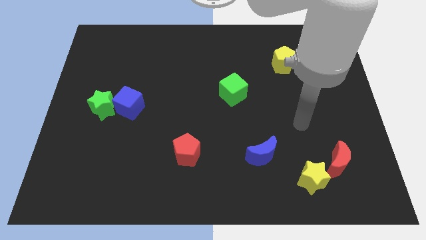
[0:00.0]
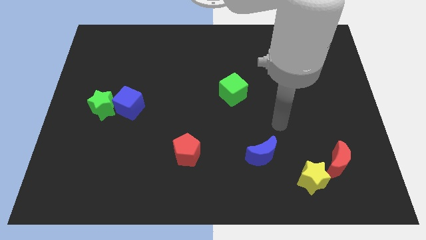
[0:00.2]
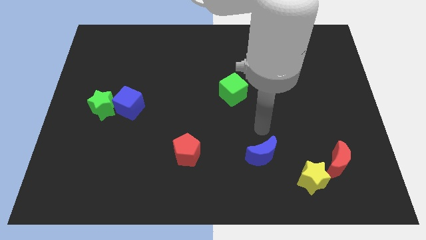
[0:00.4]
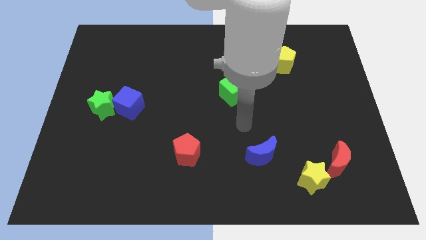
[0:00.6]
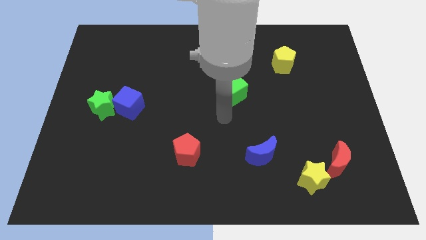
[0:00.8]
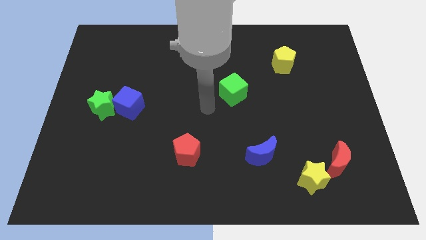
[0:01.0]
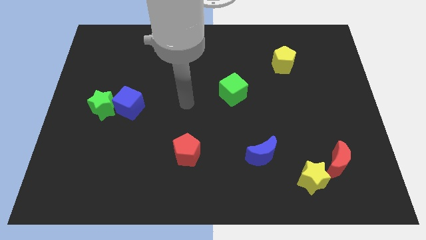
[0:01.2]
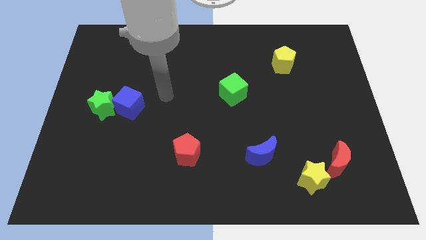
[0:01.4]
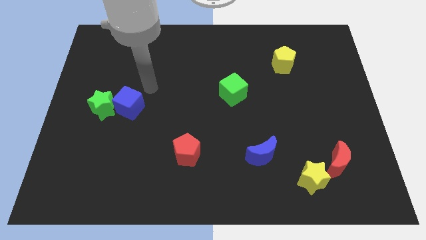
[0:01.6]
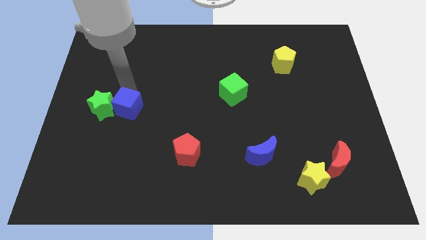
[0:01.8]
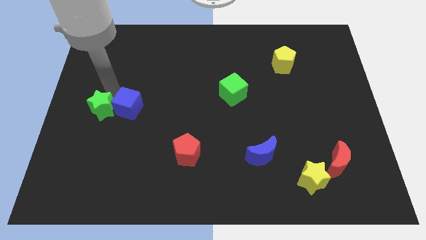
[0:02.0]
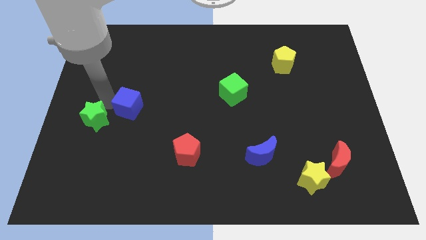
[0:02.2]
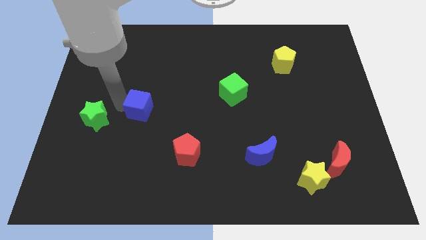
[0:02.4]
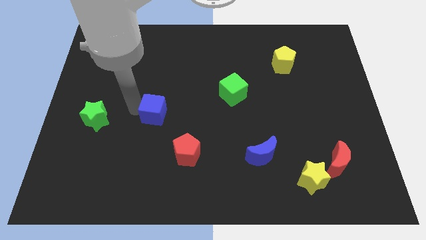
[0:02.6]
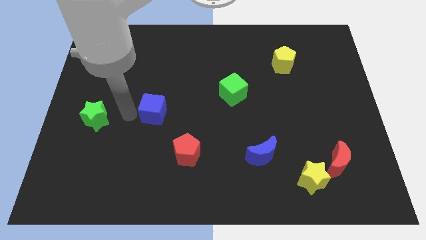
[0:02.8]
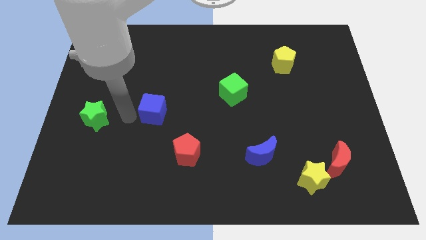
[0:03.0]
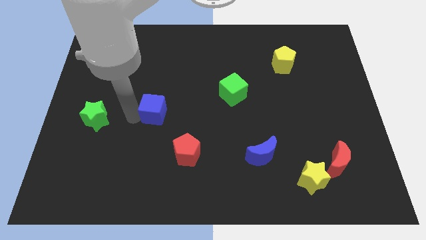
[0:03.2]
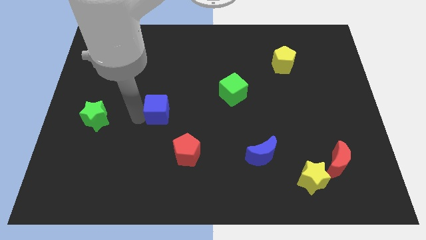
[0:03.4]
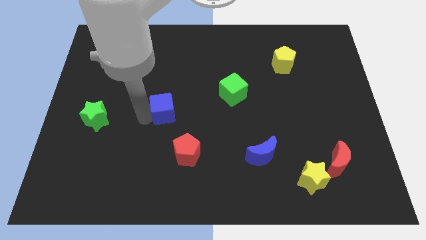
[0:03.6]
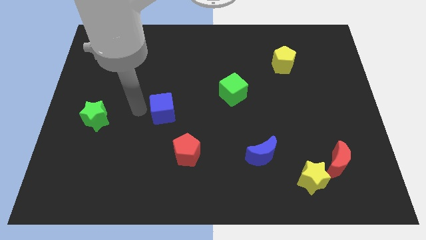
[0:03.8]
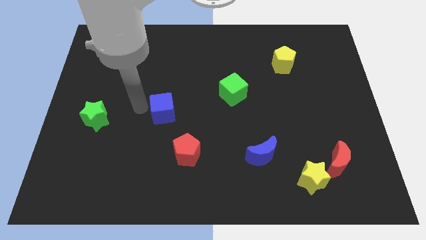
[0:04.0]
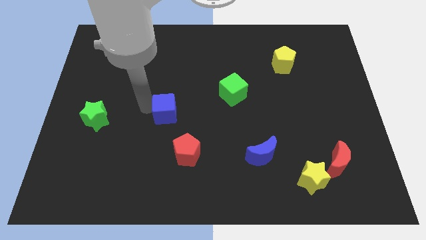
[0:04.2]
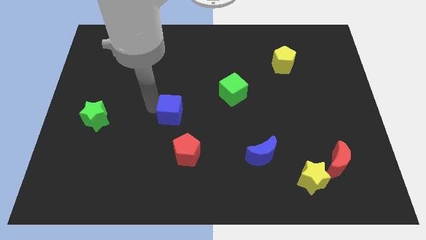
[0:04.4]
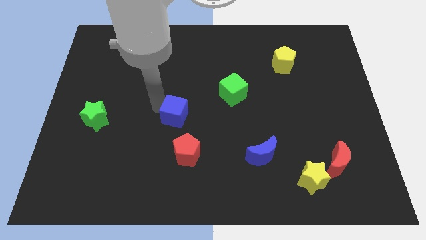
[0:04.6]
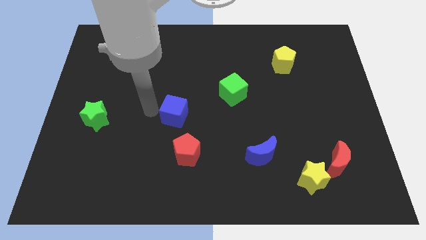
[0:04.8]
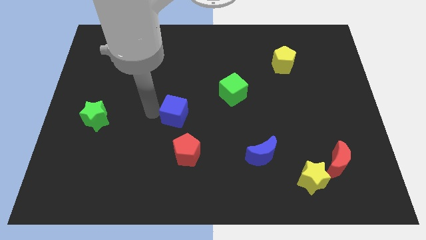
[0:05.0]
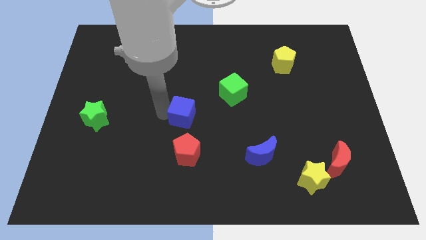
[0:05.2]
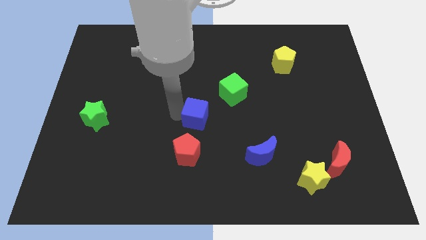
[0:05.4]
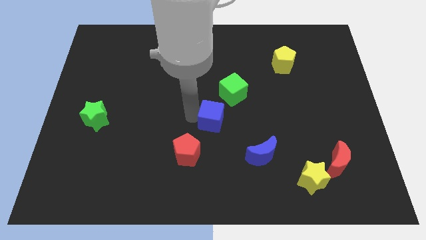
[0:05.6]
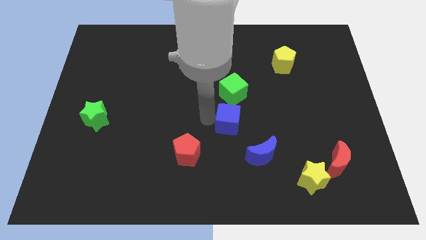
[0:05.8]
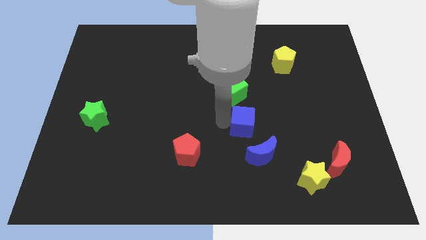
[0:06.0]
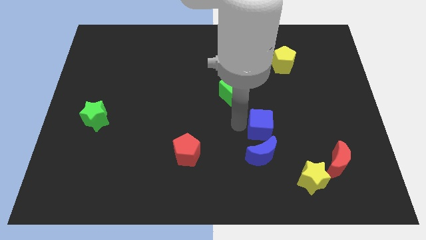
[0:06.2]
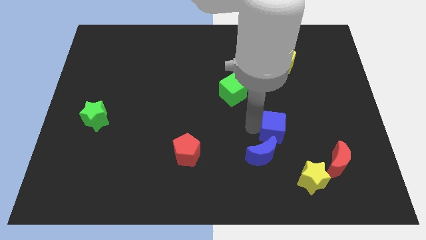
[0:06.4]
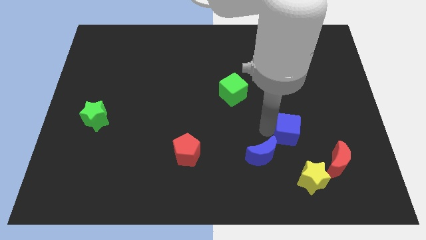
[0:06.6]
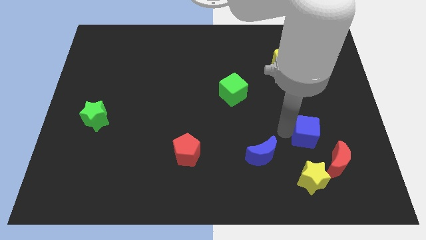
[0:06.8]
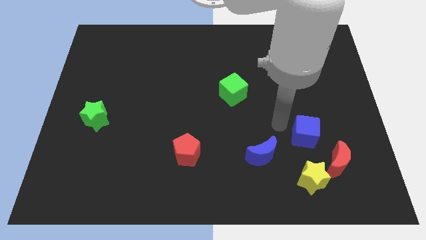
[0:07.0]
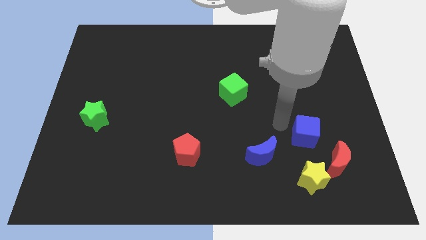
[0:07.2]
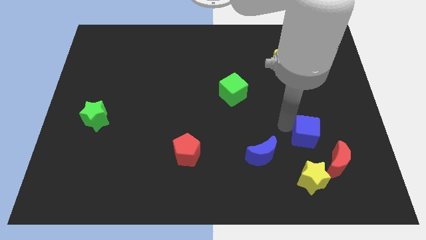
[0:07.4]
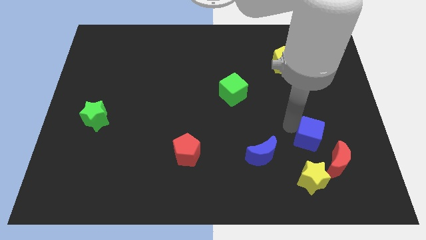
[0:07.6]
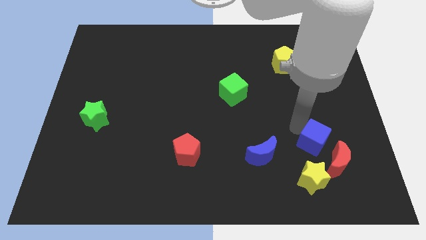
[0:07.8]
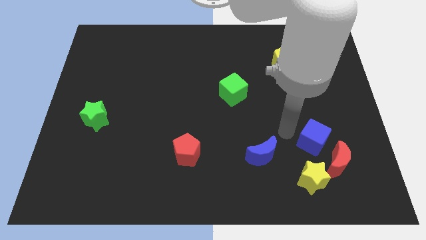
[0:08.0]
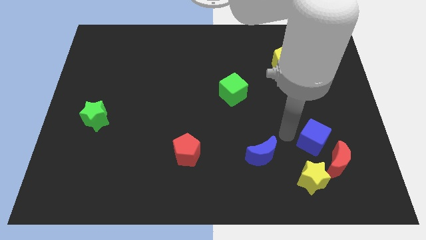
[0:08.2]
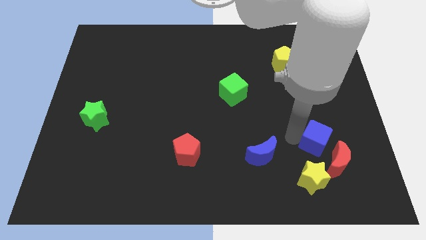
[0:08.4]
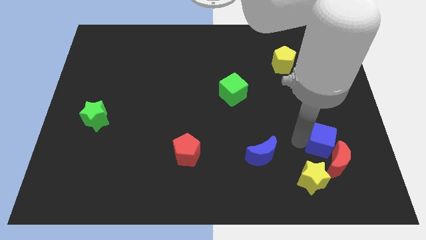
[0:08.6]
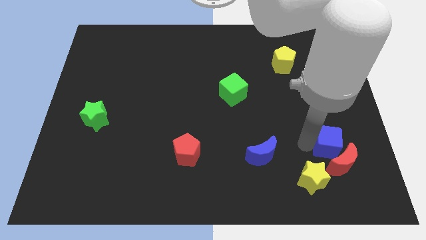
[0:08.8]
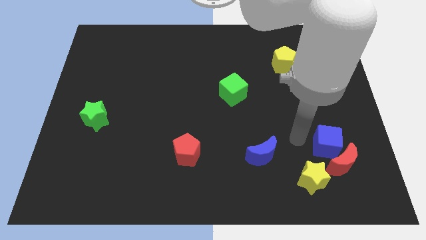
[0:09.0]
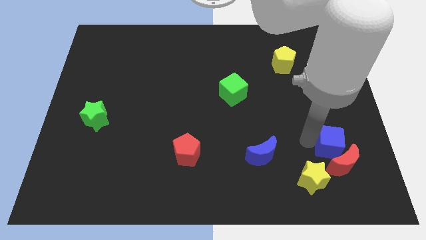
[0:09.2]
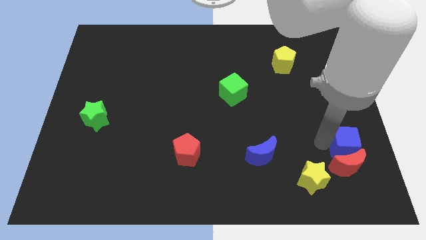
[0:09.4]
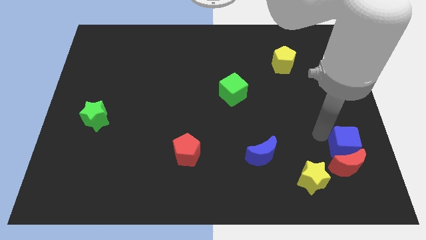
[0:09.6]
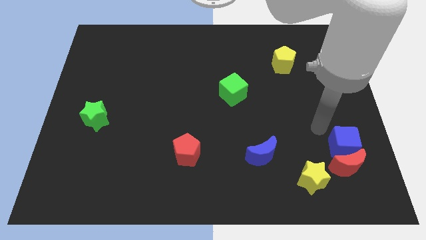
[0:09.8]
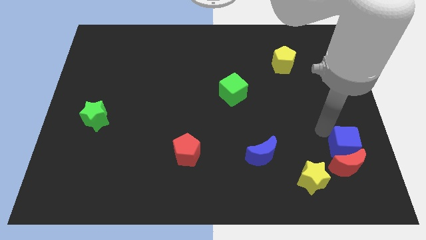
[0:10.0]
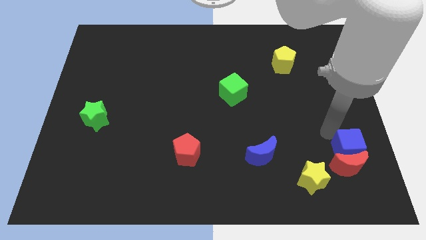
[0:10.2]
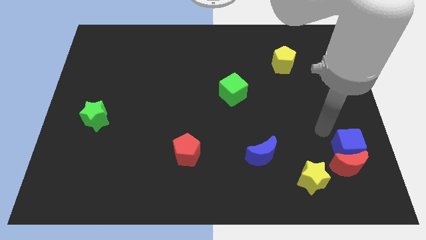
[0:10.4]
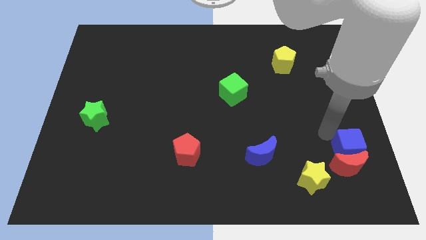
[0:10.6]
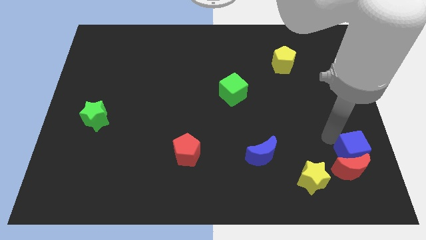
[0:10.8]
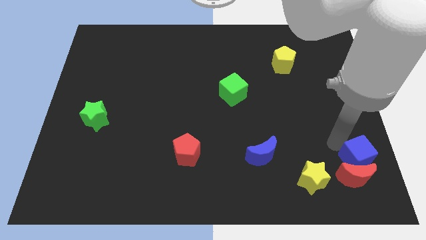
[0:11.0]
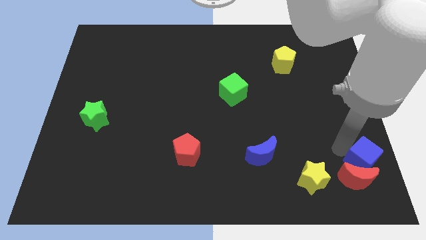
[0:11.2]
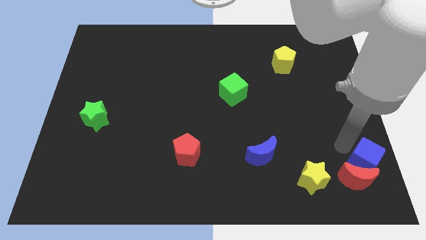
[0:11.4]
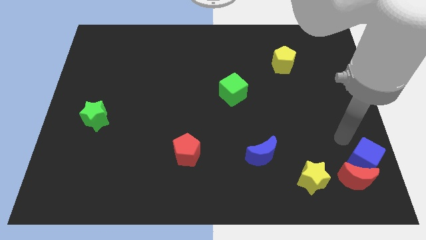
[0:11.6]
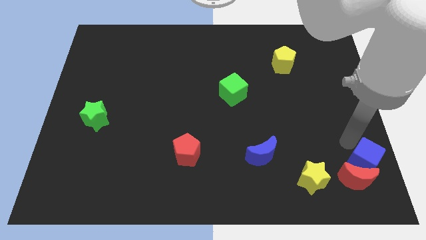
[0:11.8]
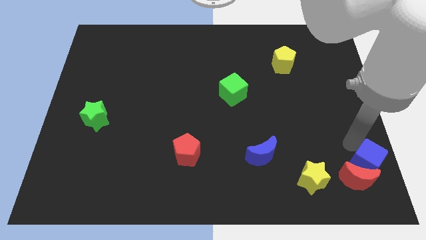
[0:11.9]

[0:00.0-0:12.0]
move the blue cube to the bottom right
